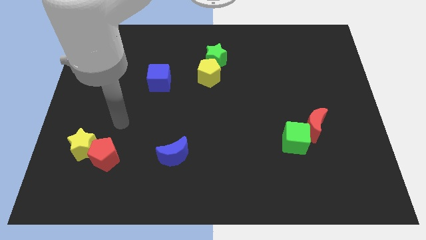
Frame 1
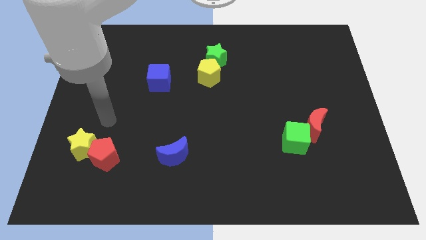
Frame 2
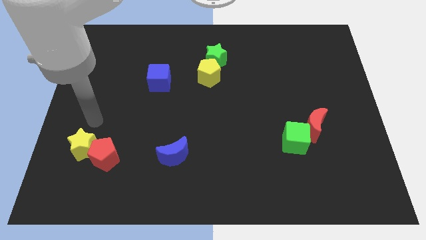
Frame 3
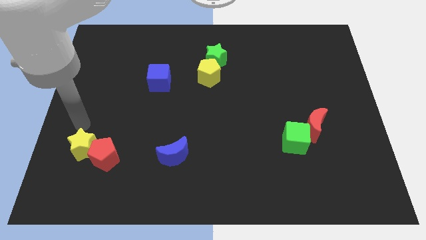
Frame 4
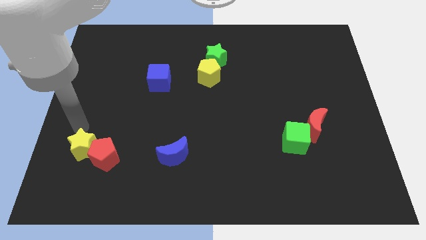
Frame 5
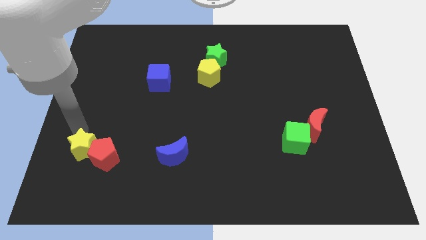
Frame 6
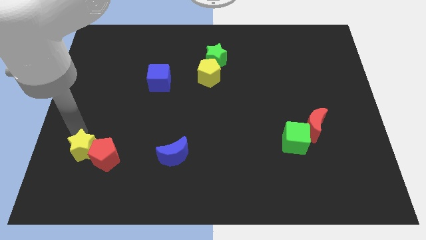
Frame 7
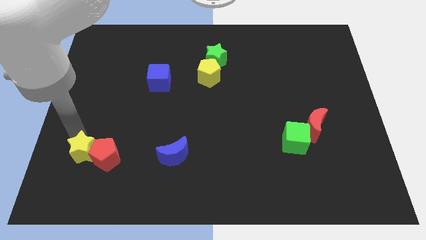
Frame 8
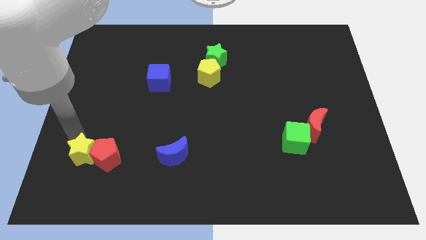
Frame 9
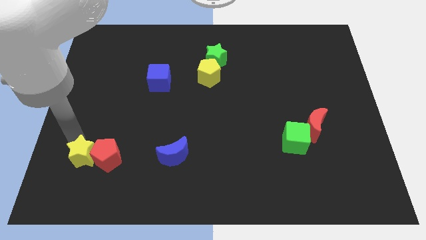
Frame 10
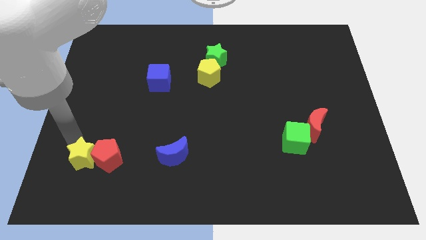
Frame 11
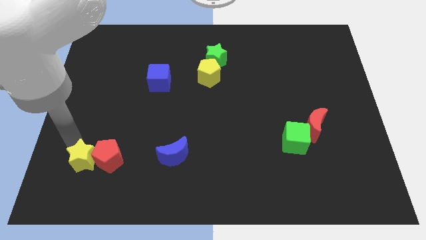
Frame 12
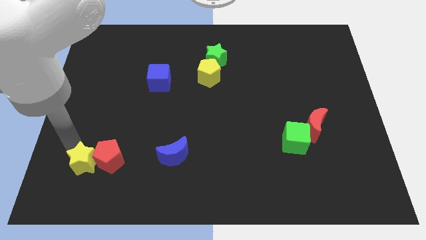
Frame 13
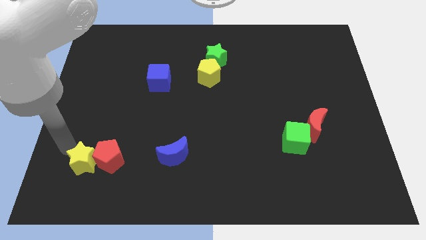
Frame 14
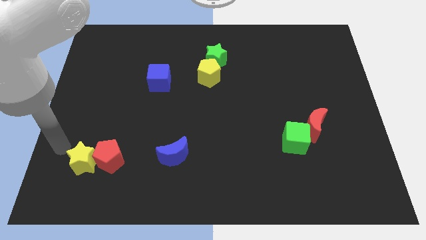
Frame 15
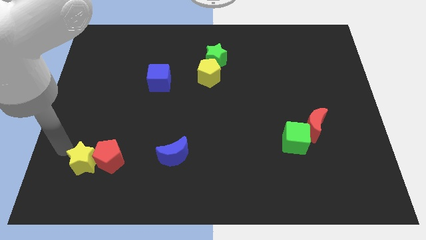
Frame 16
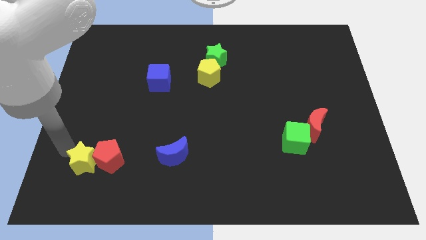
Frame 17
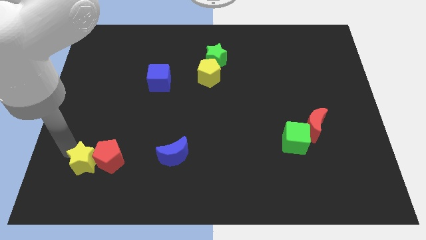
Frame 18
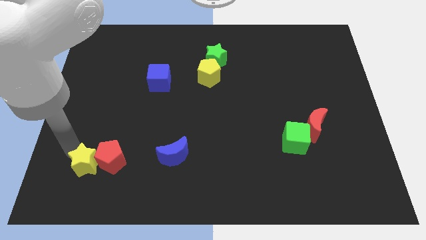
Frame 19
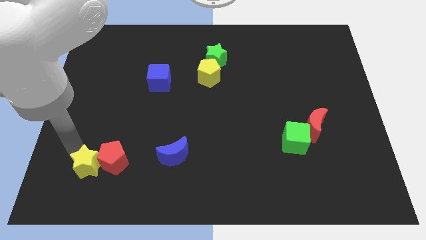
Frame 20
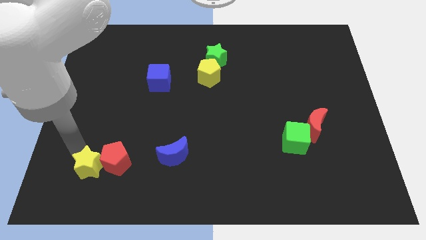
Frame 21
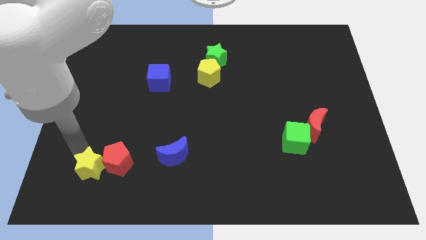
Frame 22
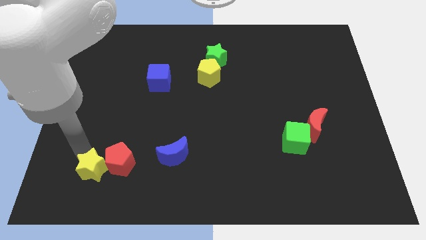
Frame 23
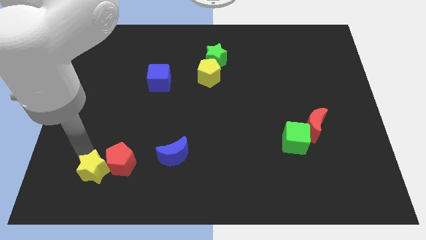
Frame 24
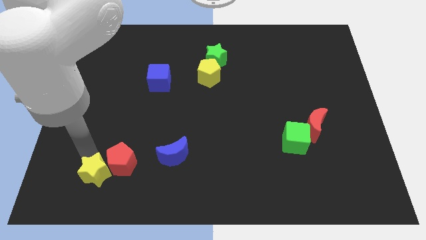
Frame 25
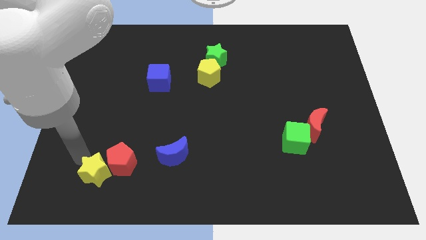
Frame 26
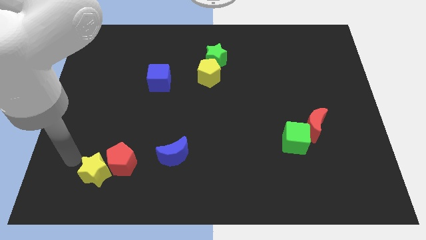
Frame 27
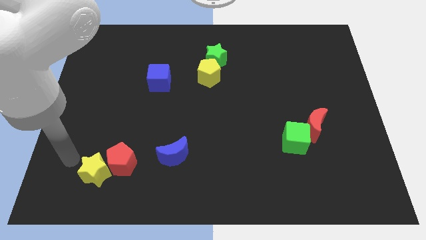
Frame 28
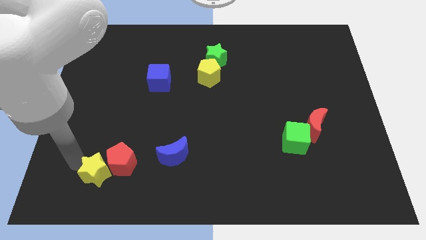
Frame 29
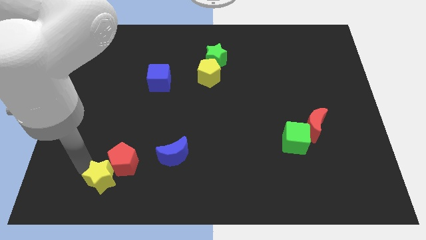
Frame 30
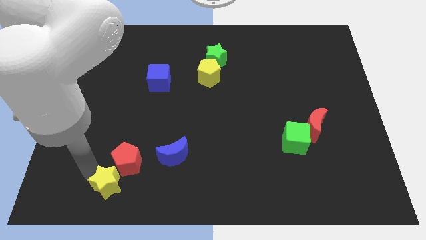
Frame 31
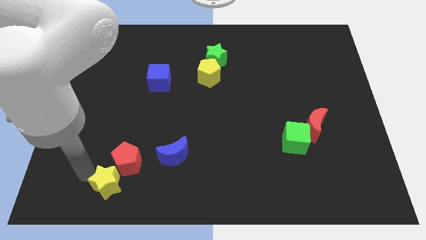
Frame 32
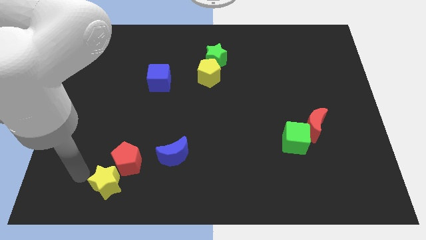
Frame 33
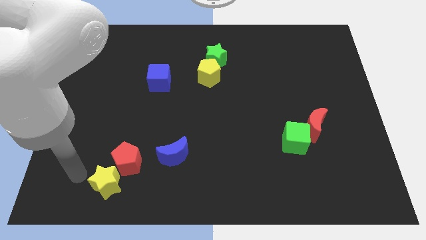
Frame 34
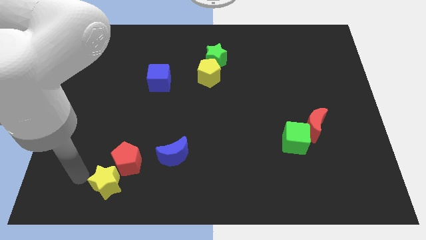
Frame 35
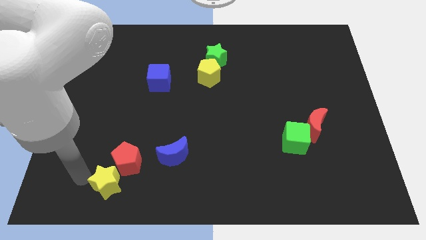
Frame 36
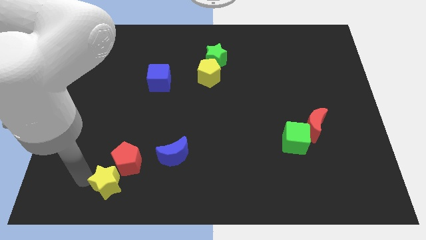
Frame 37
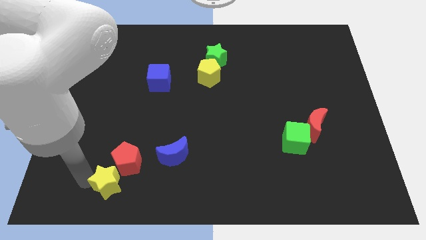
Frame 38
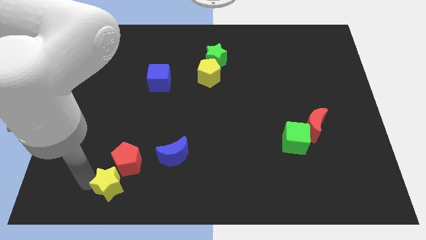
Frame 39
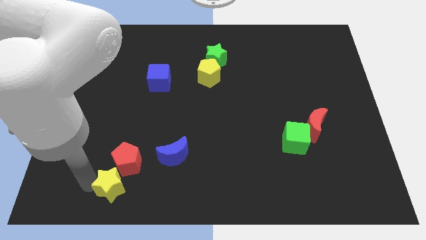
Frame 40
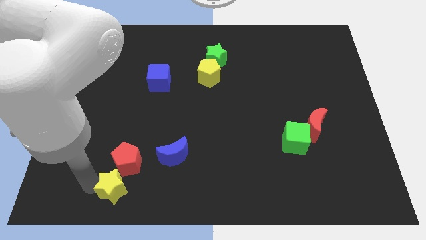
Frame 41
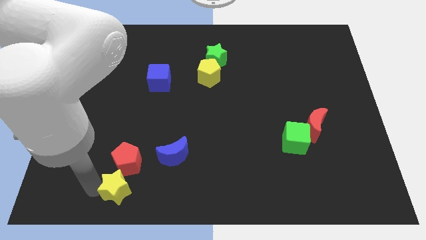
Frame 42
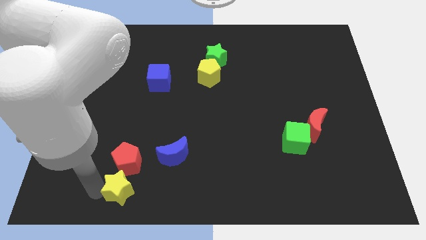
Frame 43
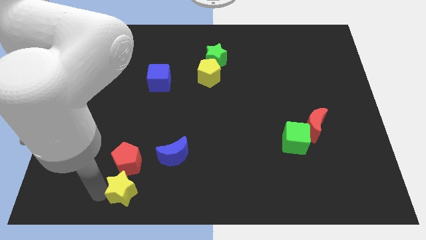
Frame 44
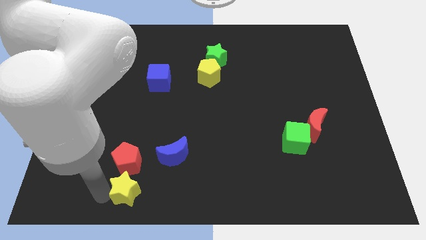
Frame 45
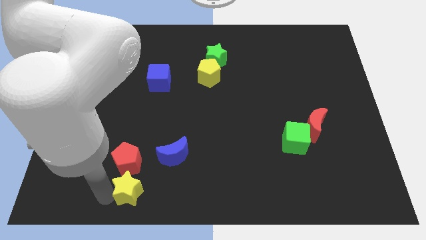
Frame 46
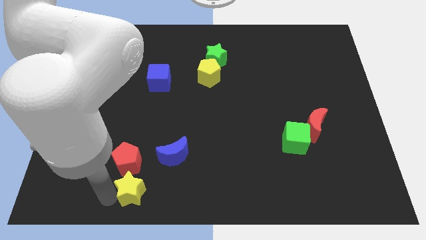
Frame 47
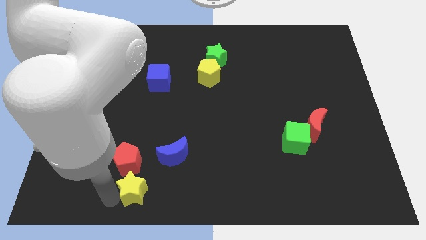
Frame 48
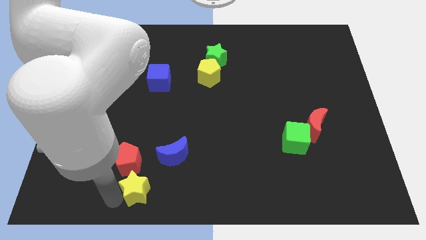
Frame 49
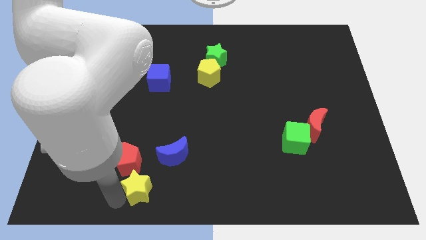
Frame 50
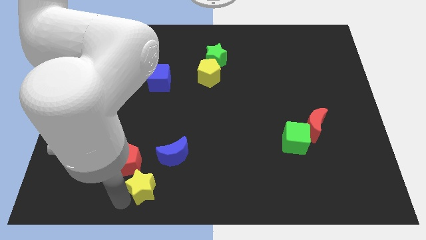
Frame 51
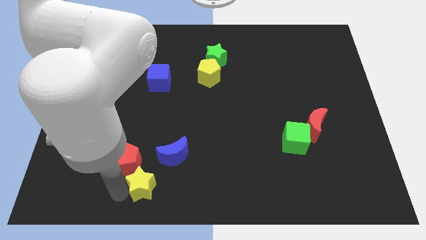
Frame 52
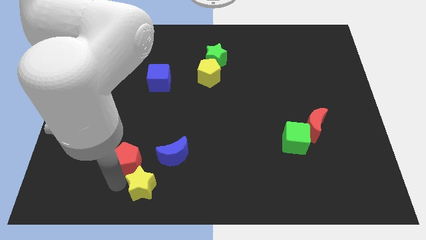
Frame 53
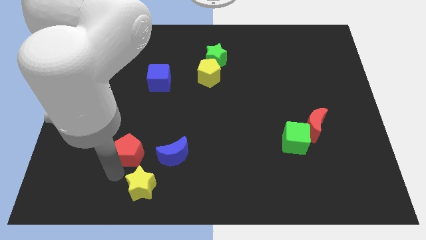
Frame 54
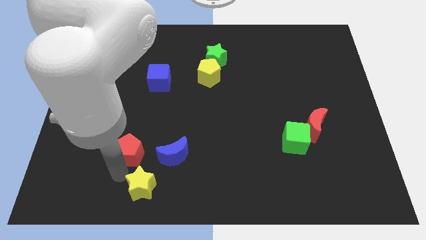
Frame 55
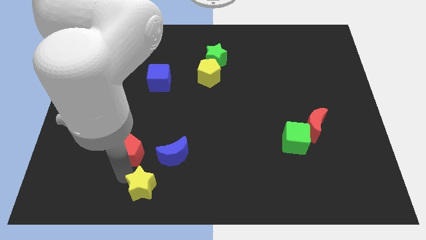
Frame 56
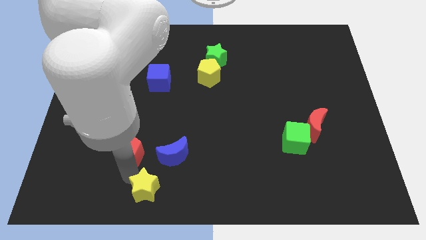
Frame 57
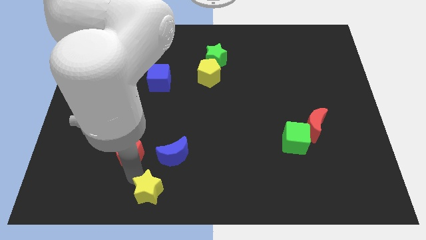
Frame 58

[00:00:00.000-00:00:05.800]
put the yellow star to the bottom side

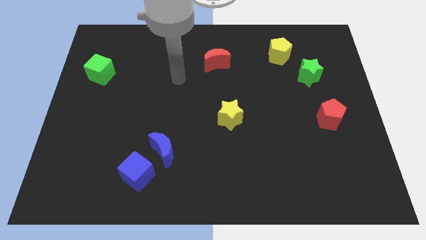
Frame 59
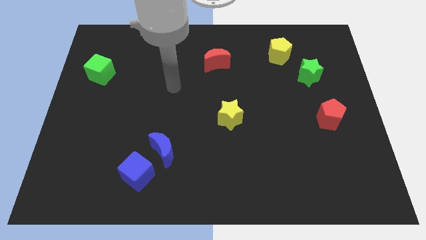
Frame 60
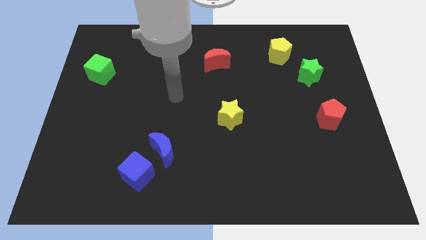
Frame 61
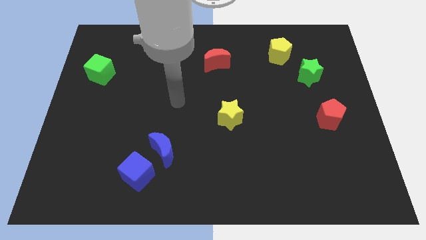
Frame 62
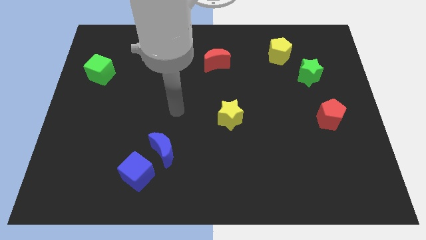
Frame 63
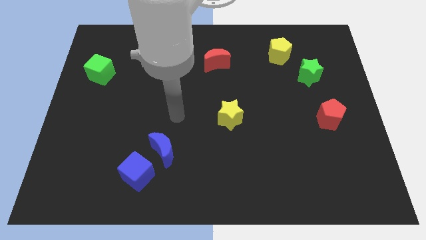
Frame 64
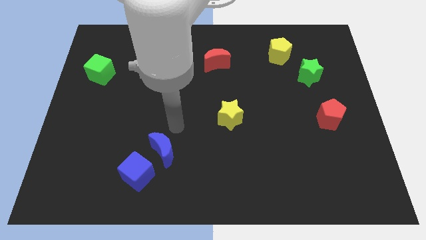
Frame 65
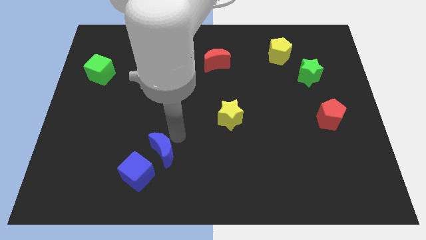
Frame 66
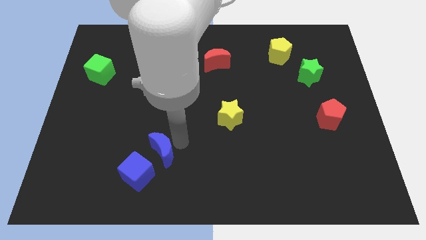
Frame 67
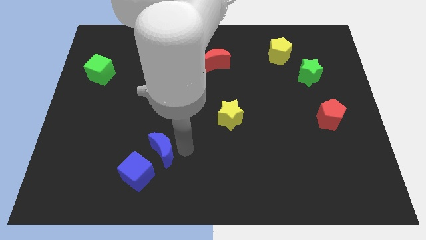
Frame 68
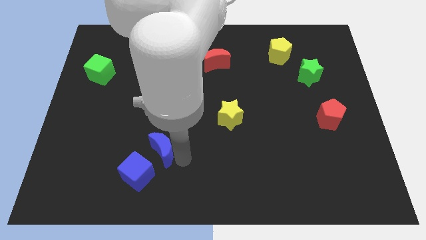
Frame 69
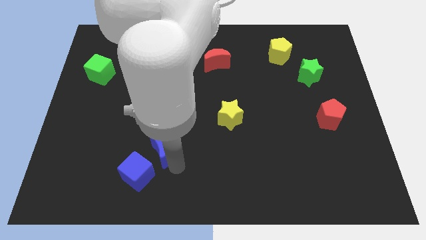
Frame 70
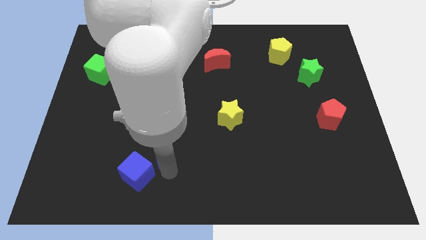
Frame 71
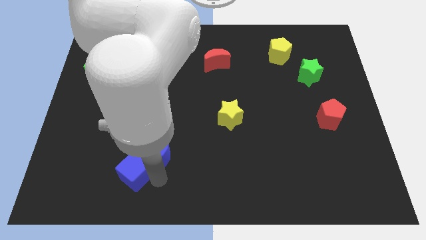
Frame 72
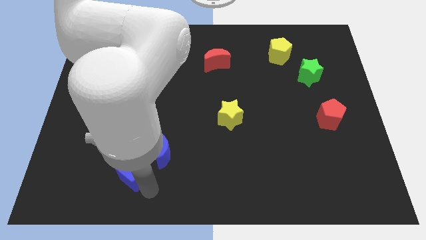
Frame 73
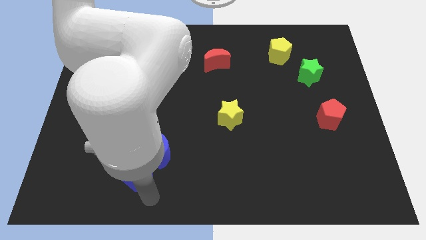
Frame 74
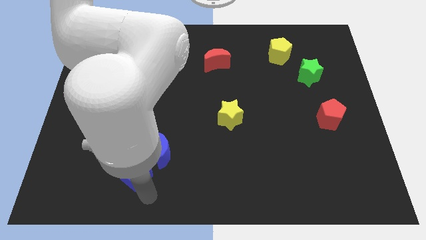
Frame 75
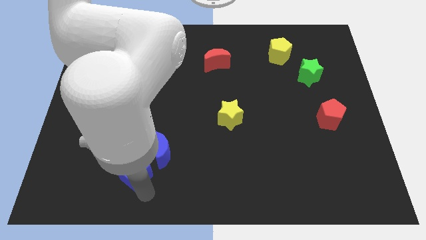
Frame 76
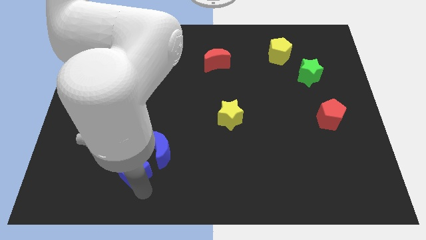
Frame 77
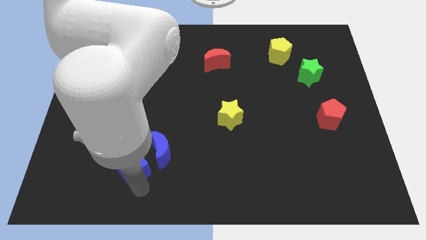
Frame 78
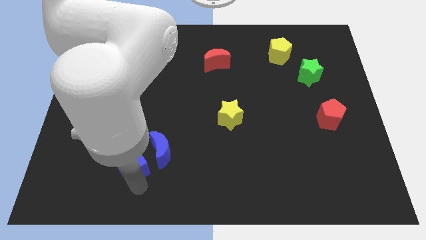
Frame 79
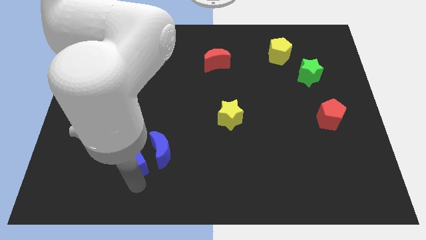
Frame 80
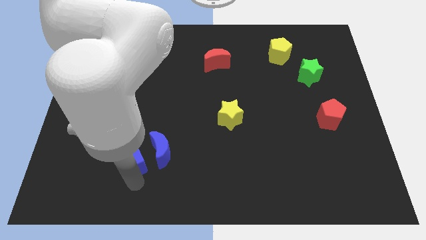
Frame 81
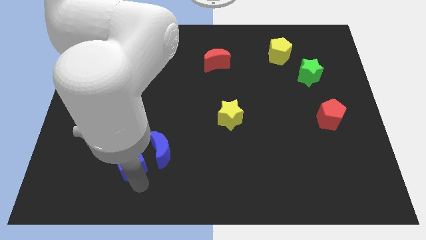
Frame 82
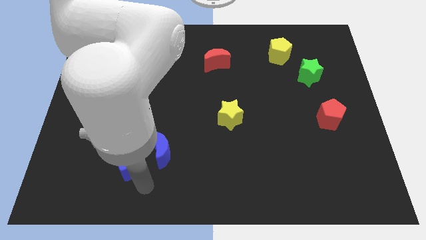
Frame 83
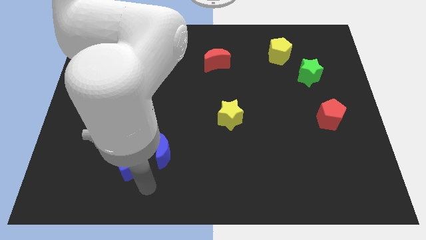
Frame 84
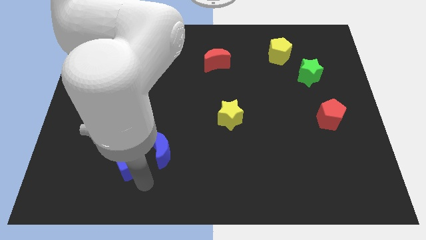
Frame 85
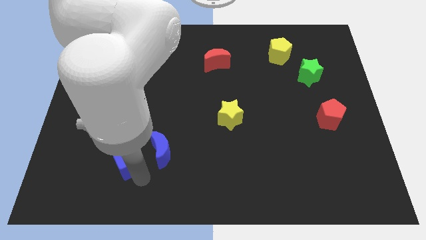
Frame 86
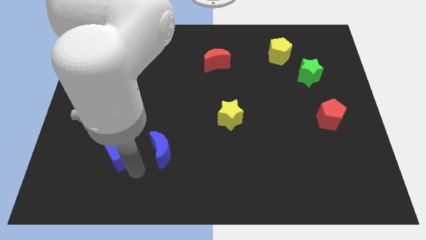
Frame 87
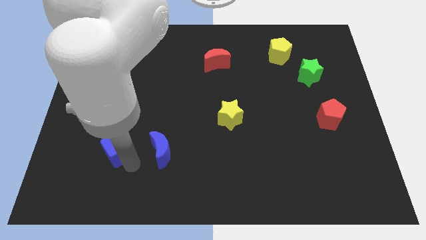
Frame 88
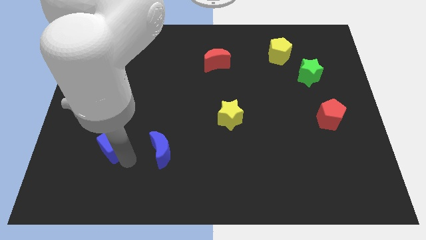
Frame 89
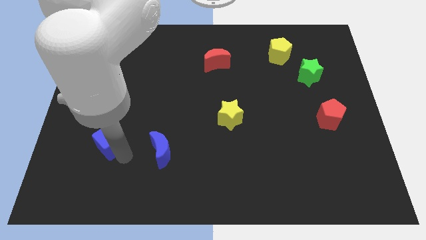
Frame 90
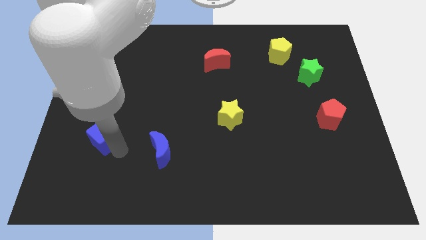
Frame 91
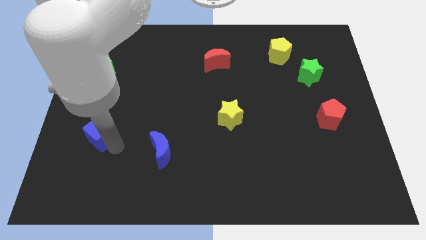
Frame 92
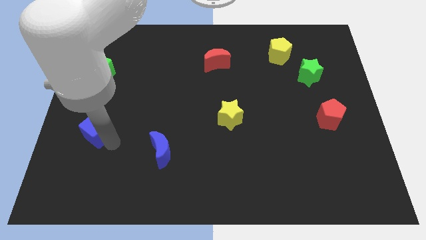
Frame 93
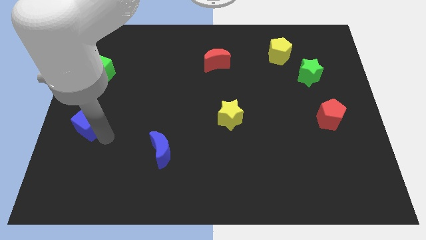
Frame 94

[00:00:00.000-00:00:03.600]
push the blue cube to the left side of the board
